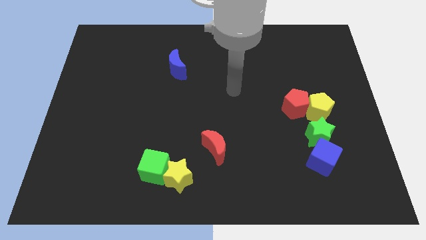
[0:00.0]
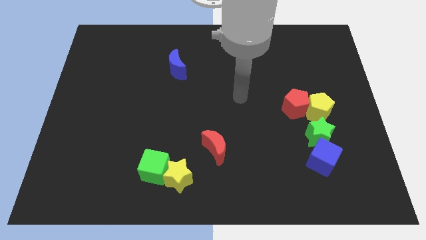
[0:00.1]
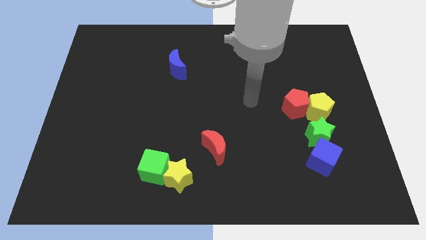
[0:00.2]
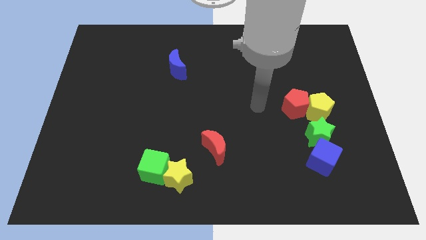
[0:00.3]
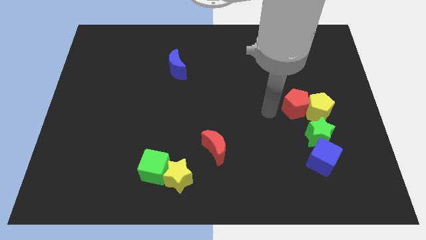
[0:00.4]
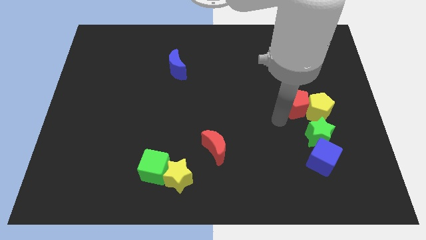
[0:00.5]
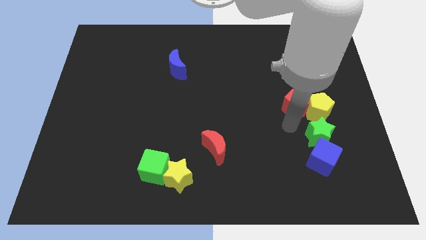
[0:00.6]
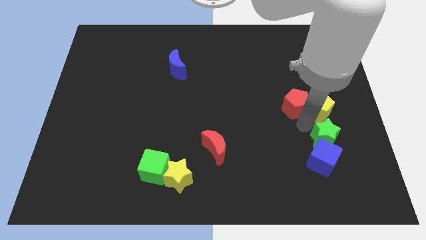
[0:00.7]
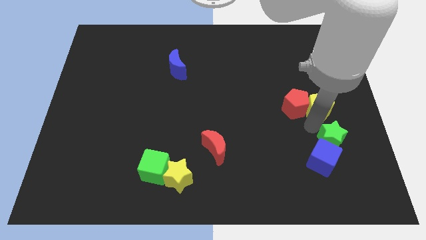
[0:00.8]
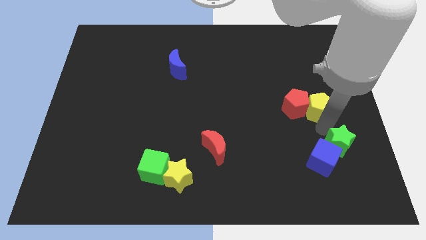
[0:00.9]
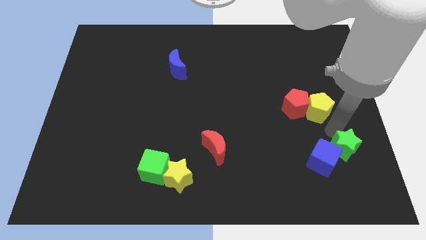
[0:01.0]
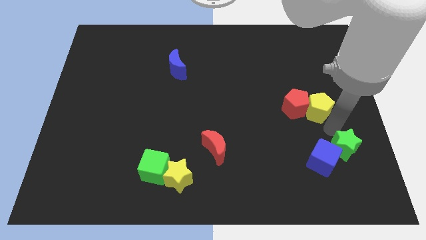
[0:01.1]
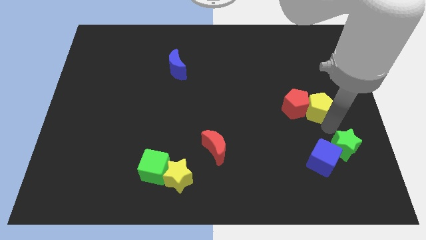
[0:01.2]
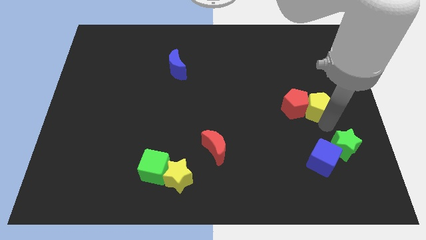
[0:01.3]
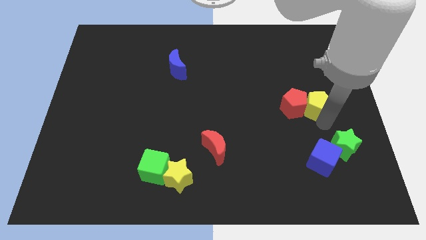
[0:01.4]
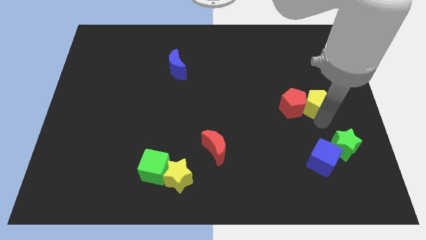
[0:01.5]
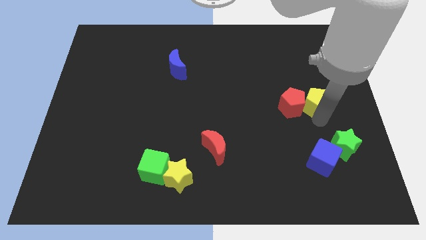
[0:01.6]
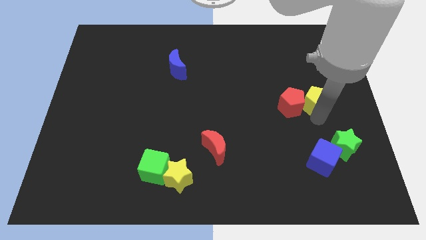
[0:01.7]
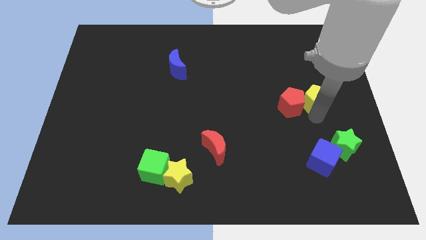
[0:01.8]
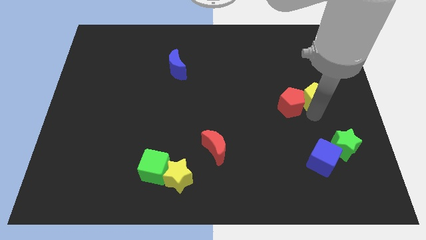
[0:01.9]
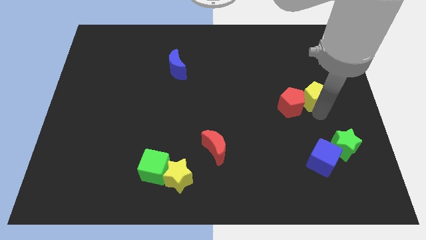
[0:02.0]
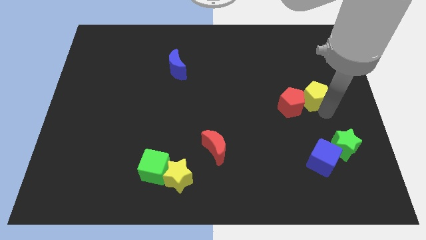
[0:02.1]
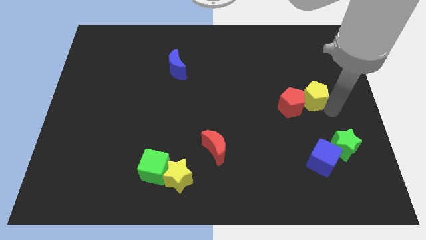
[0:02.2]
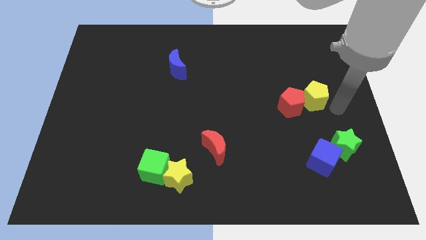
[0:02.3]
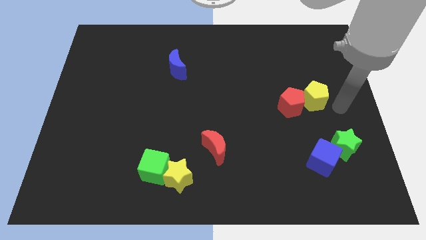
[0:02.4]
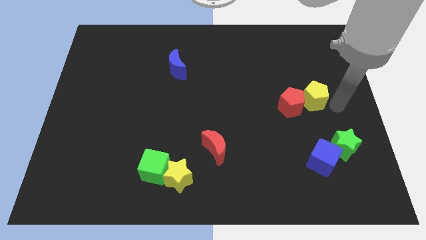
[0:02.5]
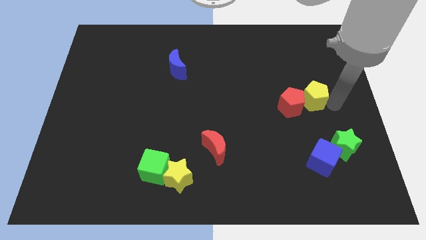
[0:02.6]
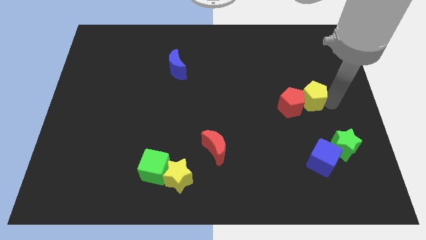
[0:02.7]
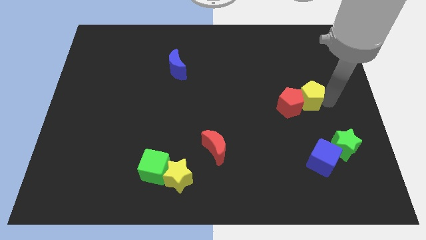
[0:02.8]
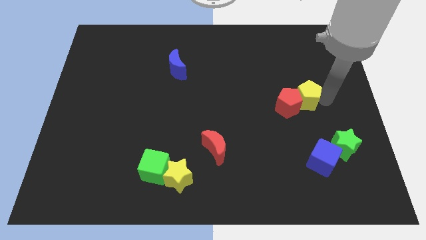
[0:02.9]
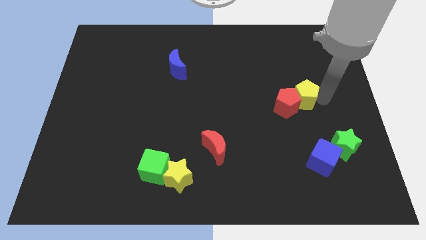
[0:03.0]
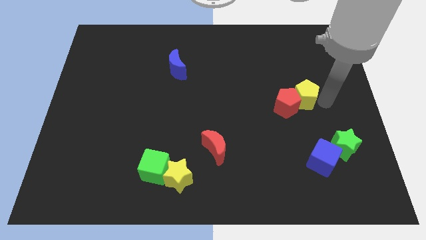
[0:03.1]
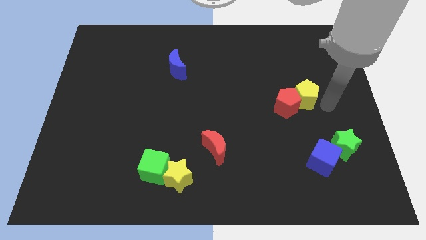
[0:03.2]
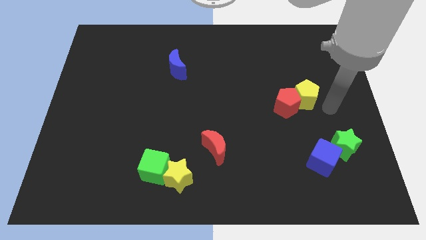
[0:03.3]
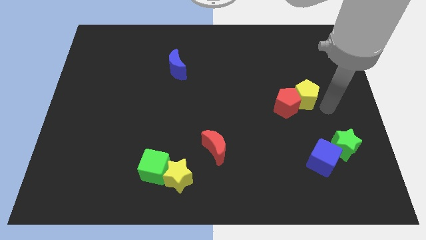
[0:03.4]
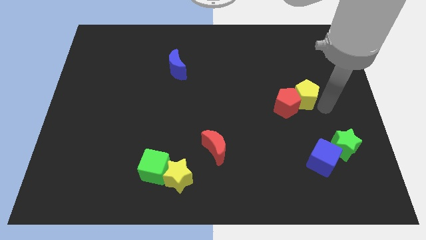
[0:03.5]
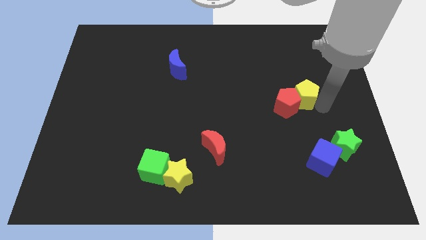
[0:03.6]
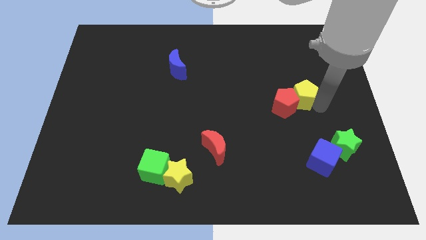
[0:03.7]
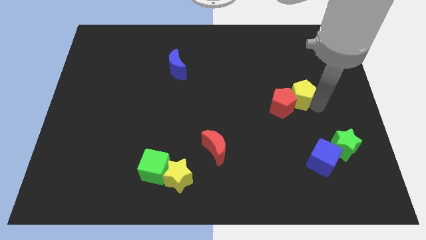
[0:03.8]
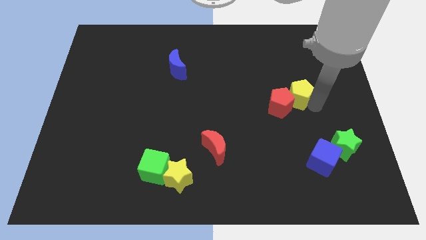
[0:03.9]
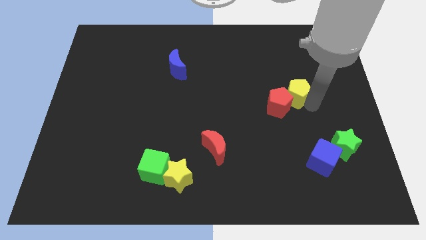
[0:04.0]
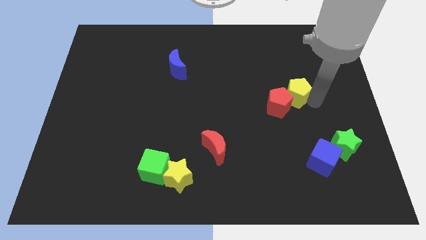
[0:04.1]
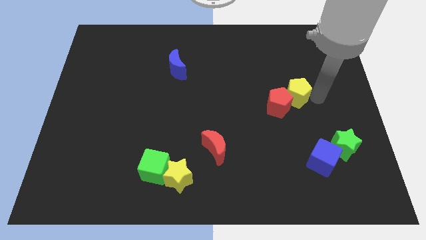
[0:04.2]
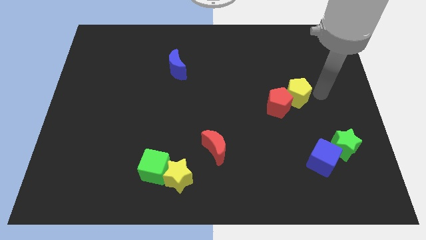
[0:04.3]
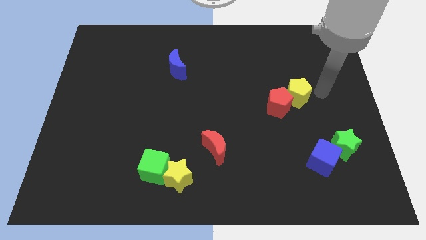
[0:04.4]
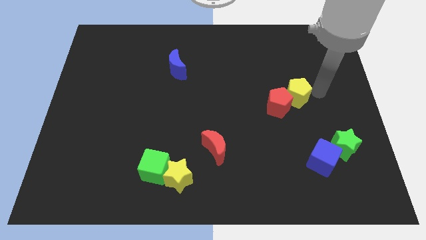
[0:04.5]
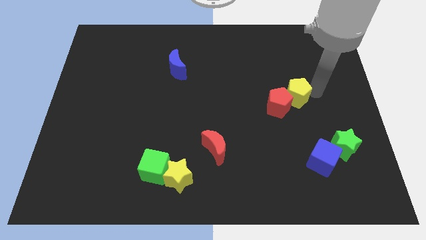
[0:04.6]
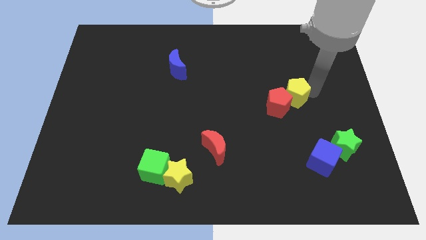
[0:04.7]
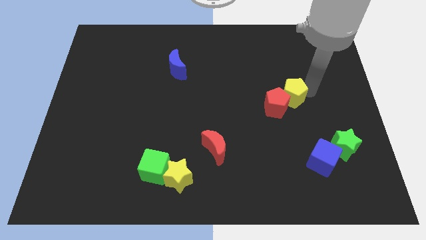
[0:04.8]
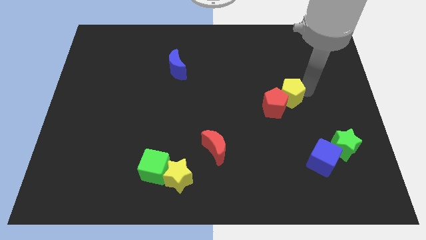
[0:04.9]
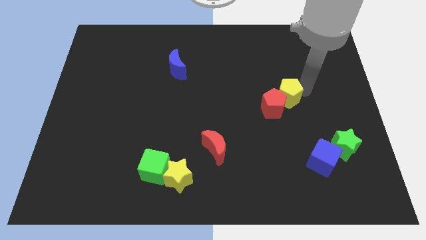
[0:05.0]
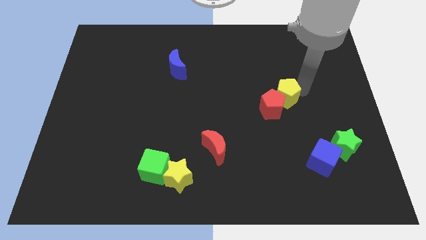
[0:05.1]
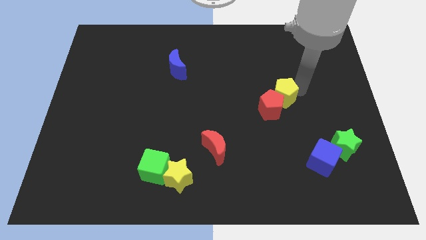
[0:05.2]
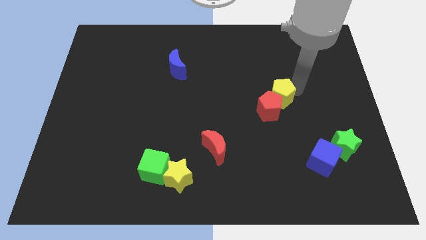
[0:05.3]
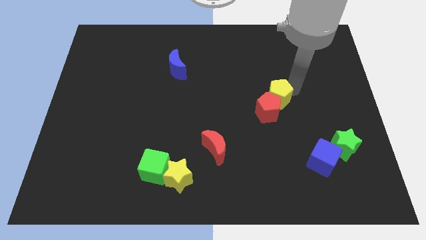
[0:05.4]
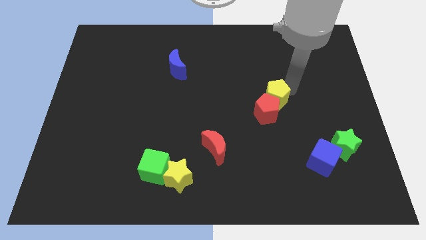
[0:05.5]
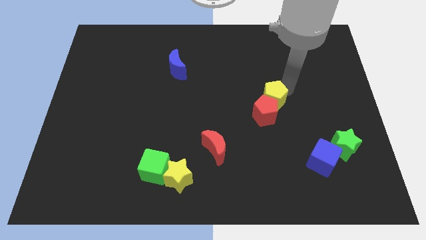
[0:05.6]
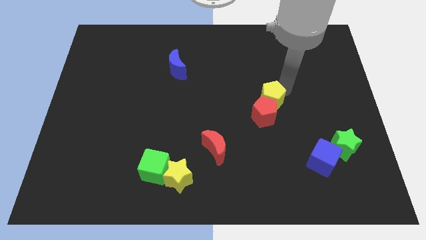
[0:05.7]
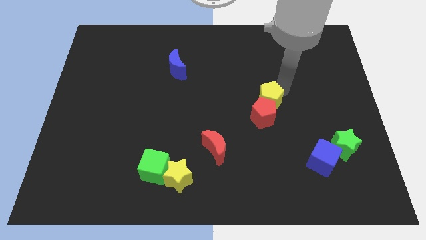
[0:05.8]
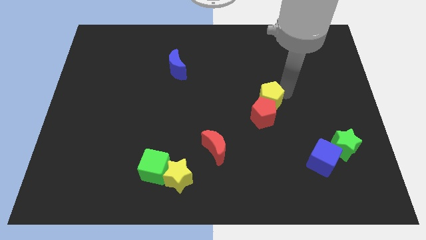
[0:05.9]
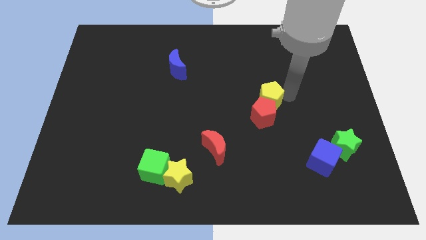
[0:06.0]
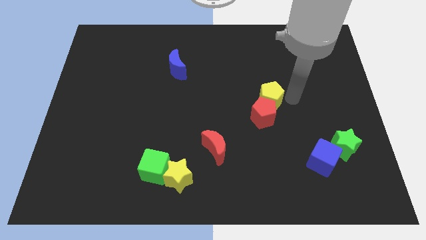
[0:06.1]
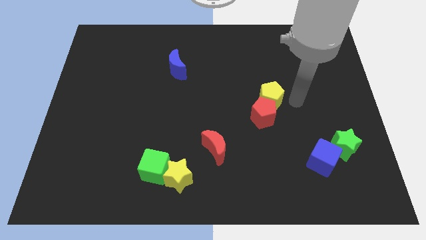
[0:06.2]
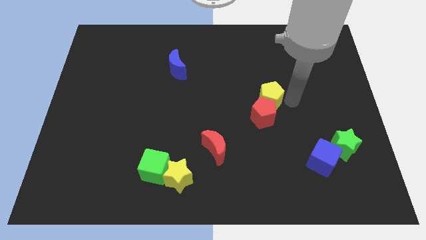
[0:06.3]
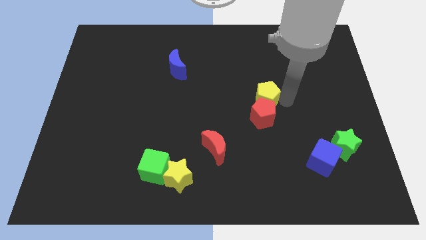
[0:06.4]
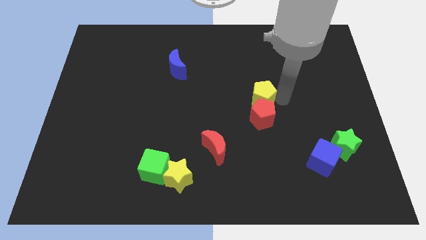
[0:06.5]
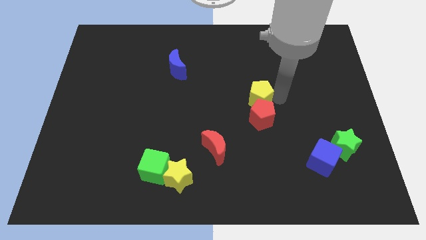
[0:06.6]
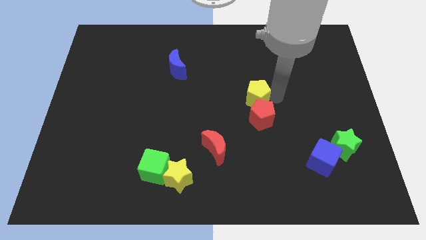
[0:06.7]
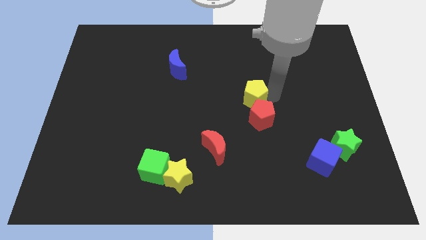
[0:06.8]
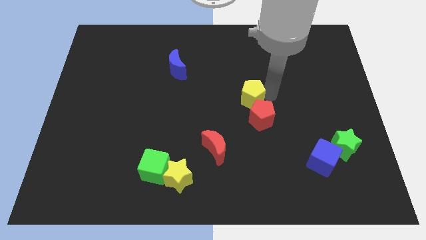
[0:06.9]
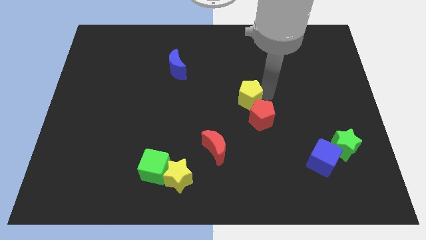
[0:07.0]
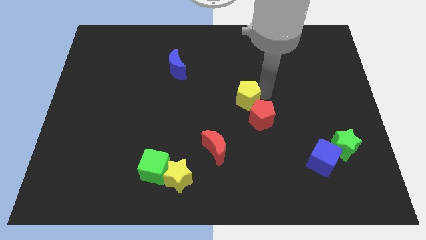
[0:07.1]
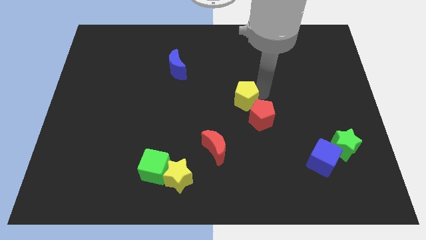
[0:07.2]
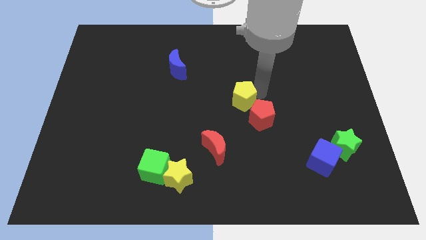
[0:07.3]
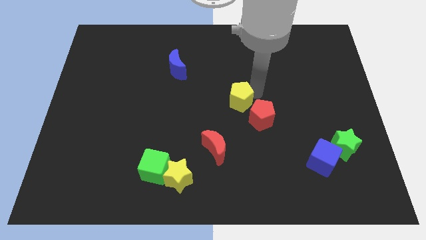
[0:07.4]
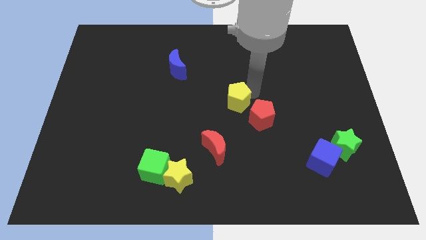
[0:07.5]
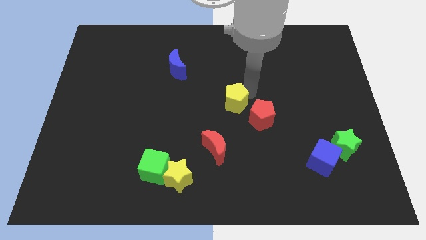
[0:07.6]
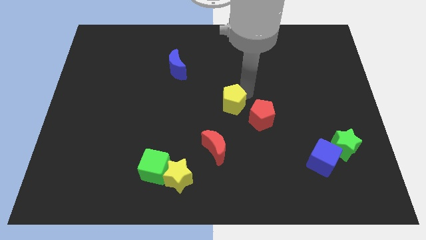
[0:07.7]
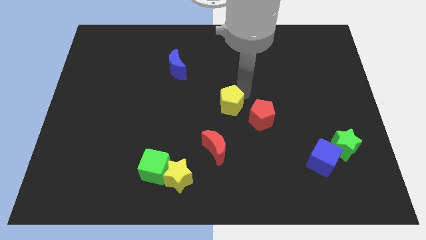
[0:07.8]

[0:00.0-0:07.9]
push the yellow pentagon to the left

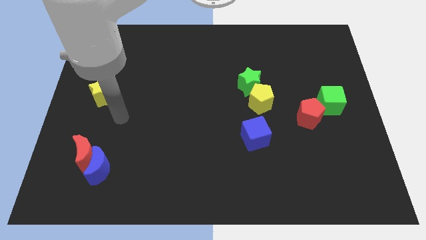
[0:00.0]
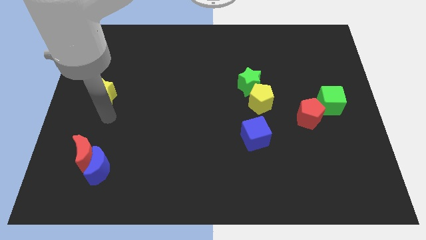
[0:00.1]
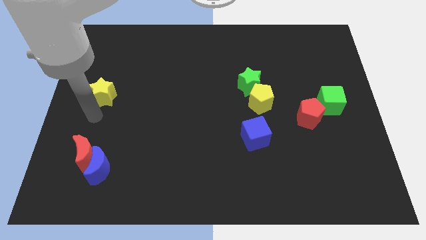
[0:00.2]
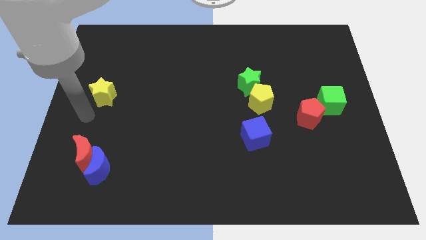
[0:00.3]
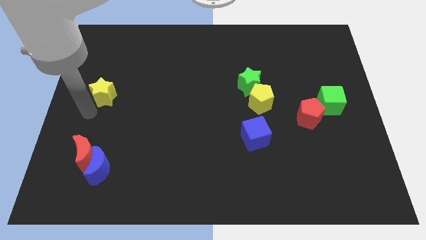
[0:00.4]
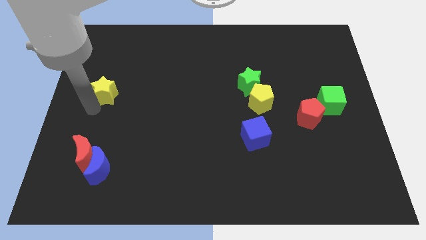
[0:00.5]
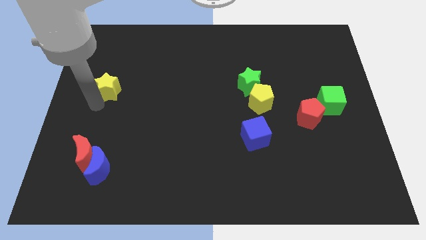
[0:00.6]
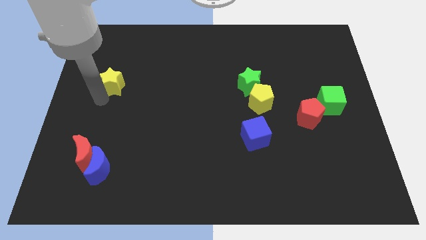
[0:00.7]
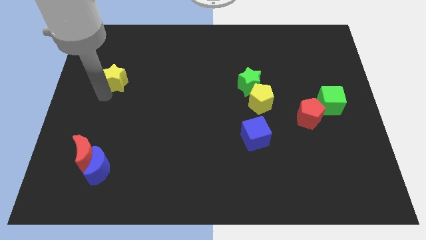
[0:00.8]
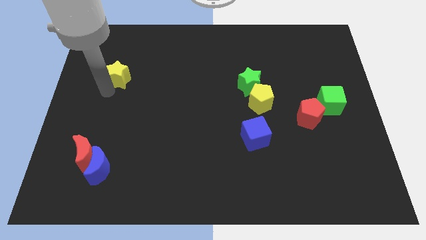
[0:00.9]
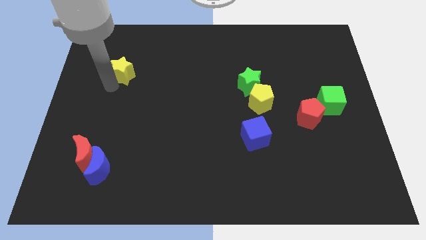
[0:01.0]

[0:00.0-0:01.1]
slide the yellow star a little bit up and then right
